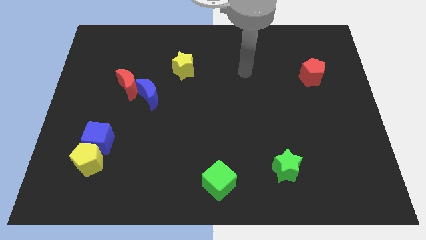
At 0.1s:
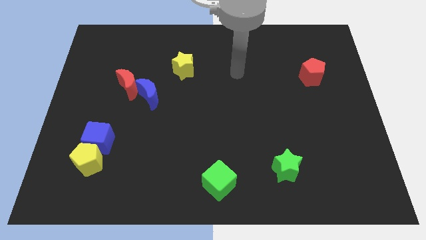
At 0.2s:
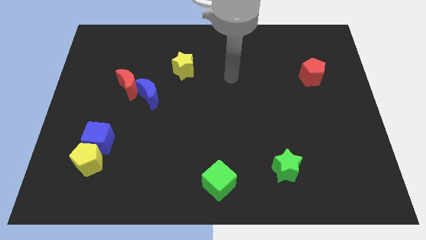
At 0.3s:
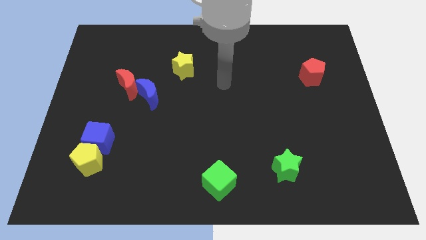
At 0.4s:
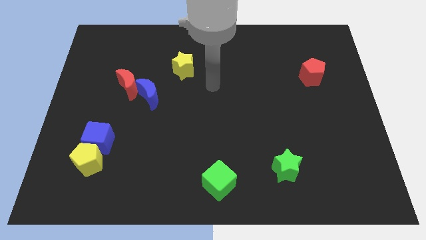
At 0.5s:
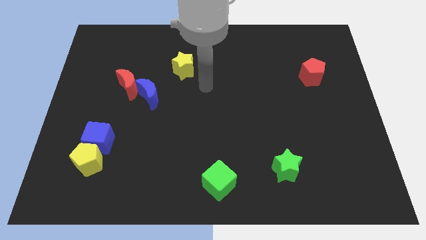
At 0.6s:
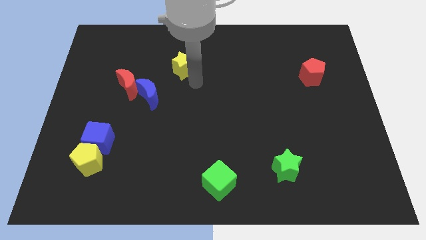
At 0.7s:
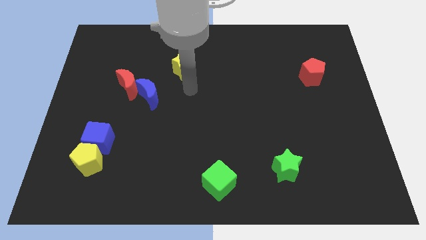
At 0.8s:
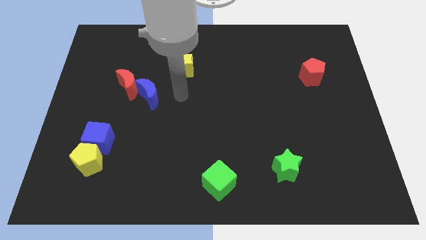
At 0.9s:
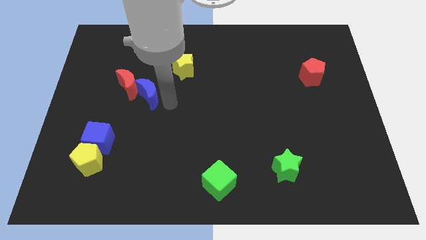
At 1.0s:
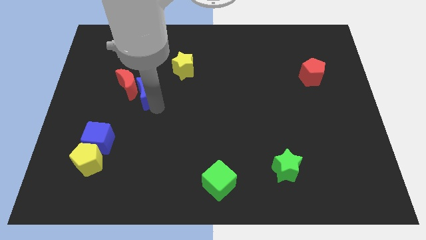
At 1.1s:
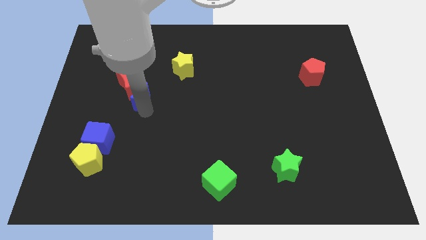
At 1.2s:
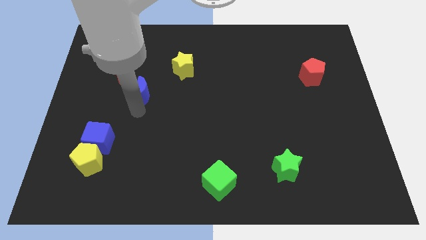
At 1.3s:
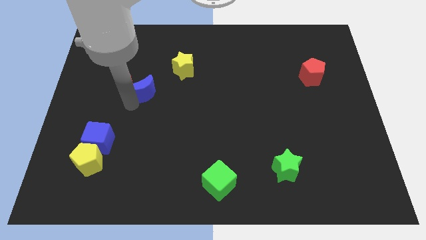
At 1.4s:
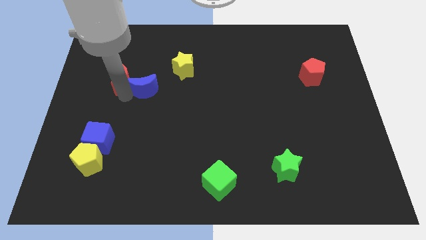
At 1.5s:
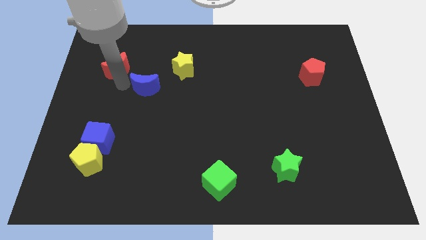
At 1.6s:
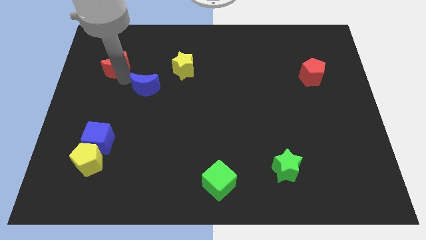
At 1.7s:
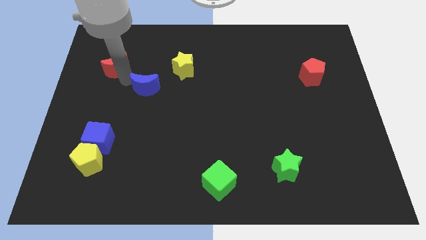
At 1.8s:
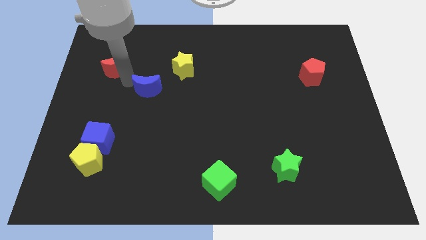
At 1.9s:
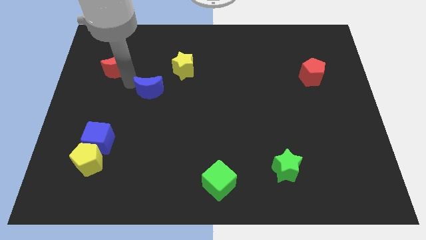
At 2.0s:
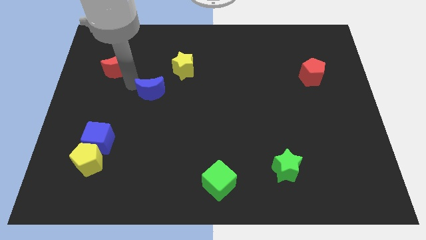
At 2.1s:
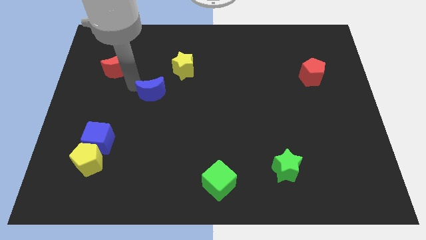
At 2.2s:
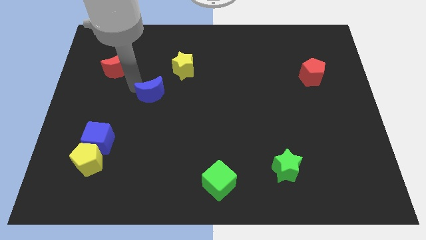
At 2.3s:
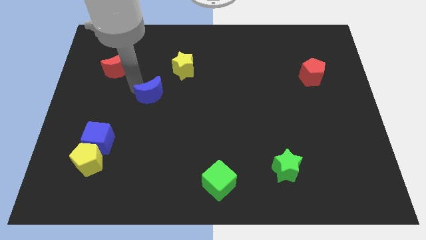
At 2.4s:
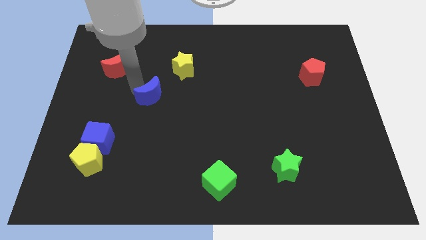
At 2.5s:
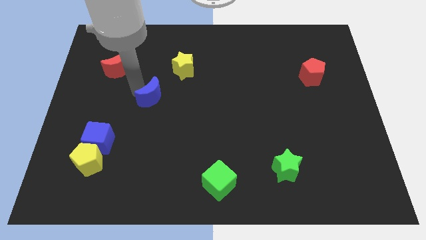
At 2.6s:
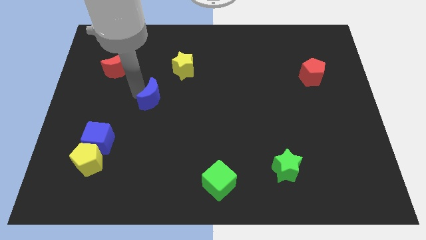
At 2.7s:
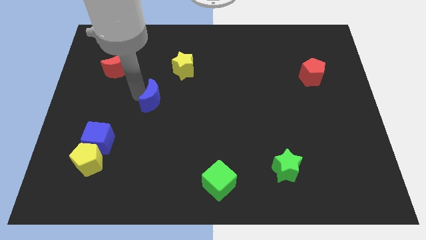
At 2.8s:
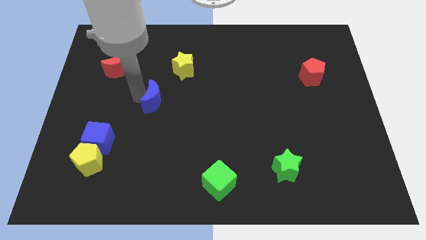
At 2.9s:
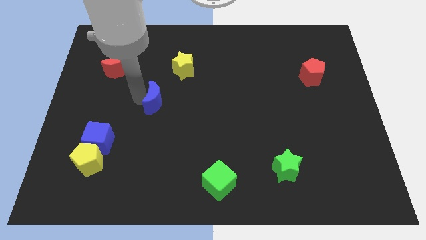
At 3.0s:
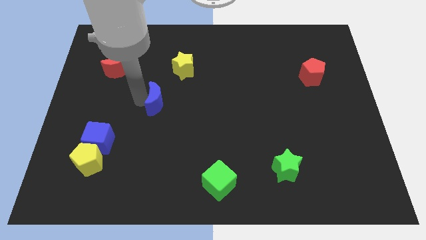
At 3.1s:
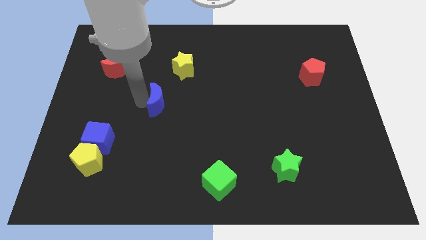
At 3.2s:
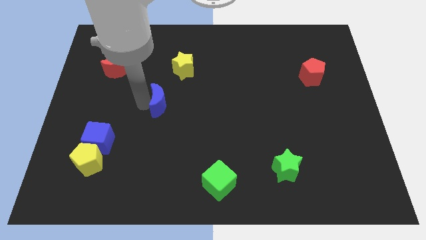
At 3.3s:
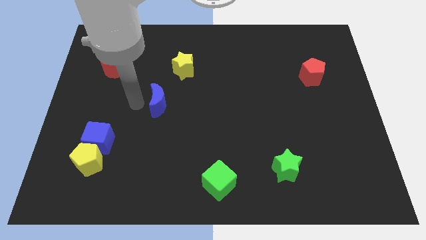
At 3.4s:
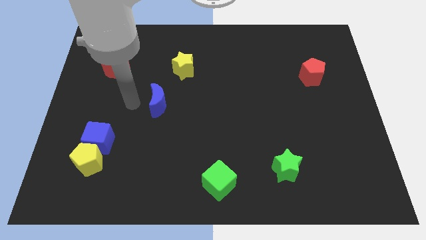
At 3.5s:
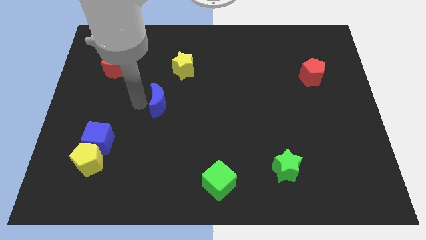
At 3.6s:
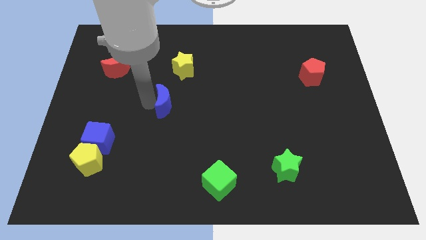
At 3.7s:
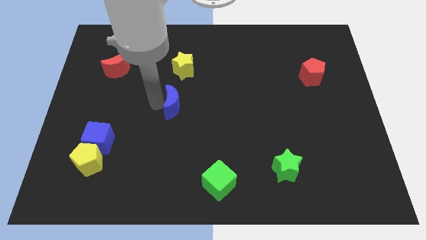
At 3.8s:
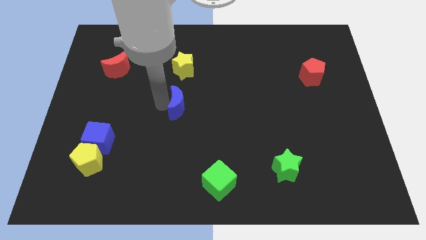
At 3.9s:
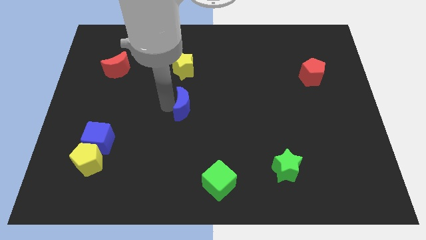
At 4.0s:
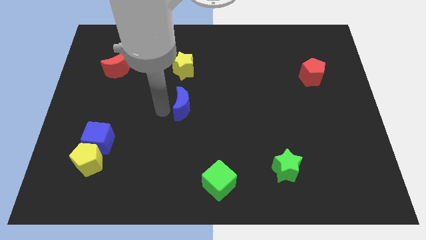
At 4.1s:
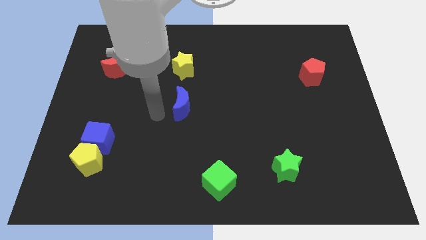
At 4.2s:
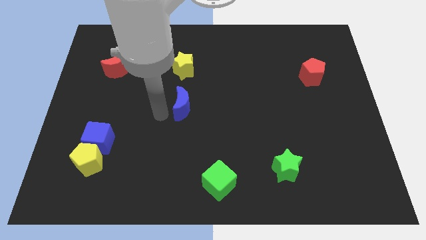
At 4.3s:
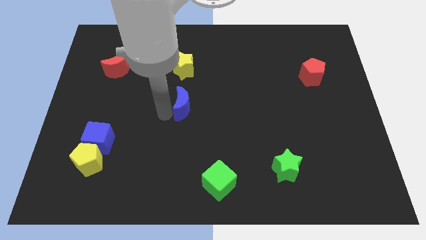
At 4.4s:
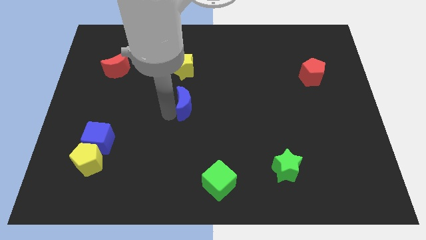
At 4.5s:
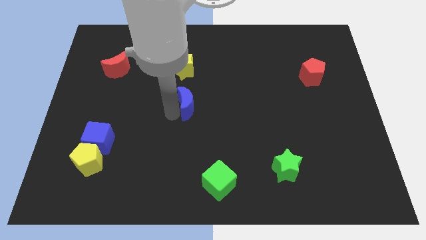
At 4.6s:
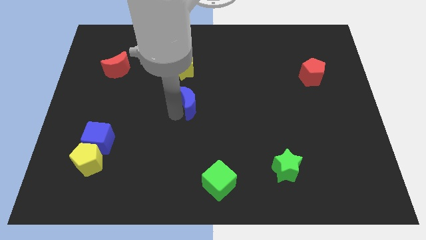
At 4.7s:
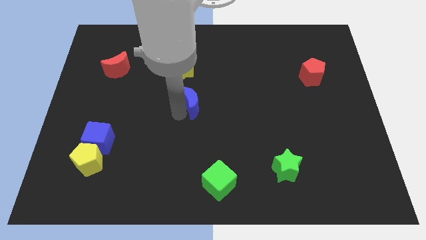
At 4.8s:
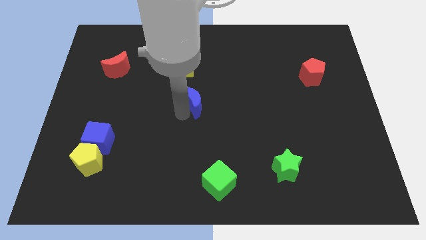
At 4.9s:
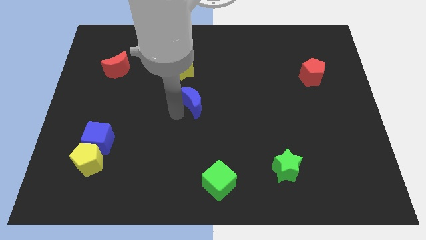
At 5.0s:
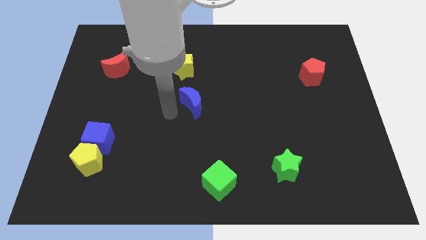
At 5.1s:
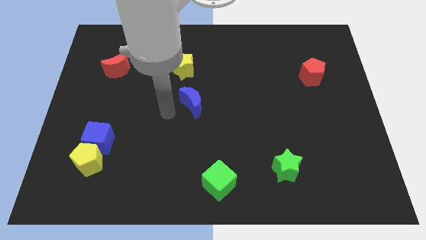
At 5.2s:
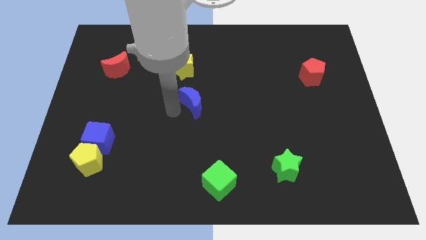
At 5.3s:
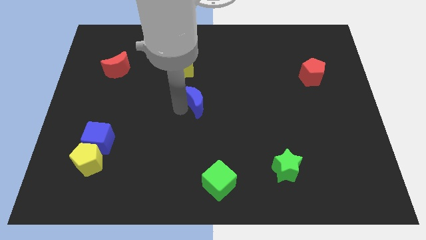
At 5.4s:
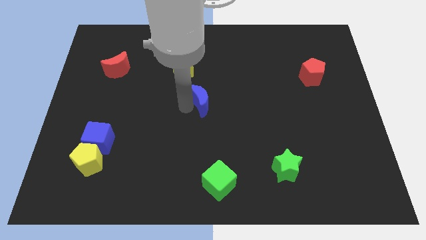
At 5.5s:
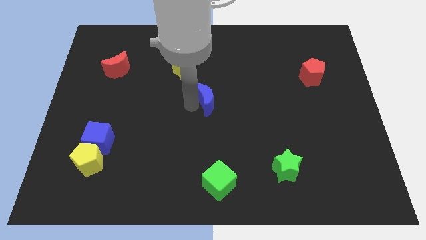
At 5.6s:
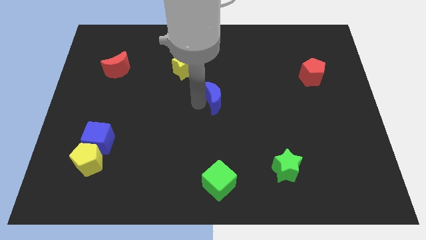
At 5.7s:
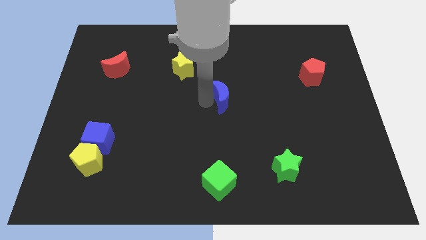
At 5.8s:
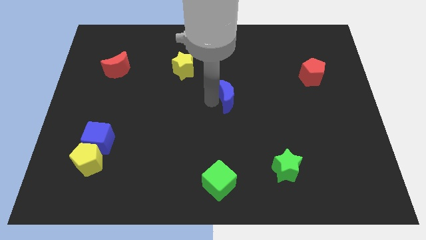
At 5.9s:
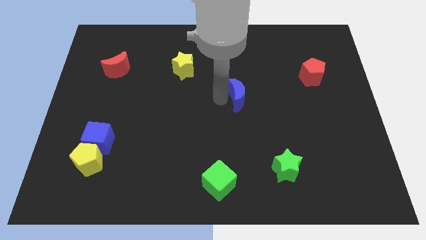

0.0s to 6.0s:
push the blue moon right

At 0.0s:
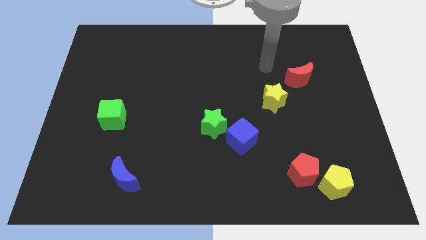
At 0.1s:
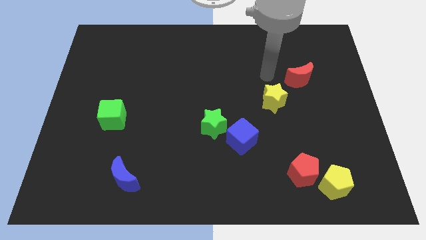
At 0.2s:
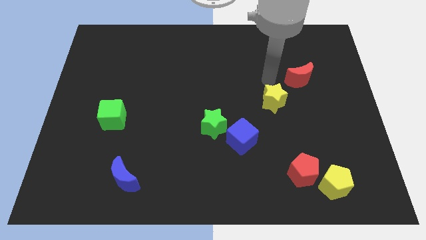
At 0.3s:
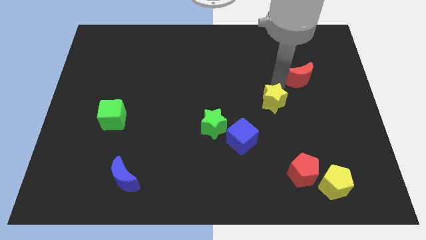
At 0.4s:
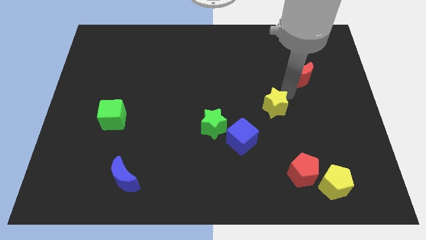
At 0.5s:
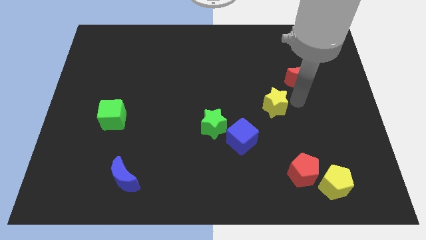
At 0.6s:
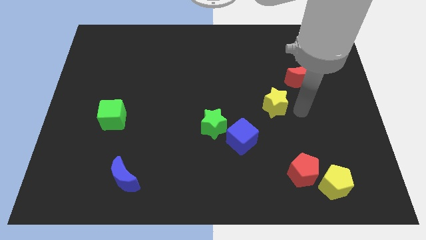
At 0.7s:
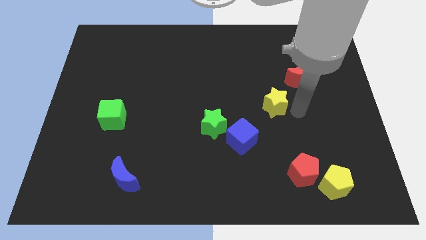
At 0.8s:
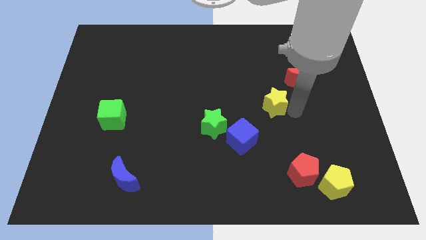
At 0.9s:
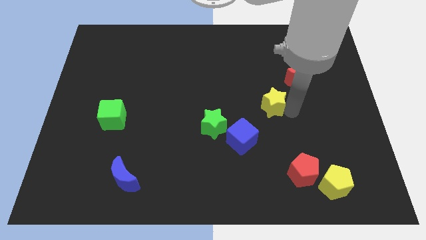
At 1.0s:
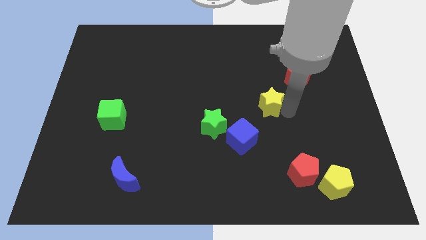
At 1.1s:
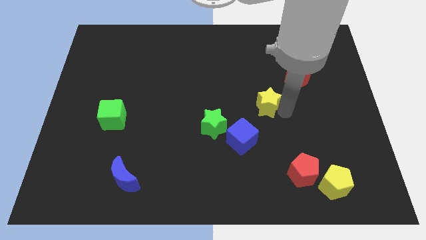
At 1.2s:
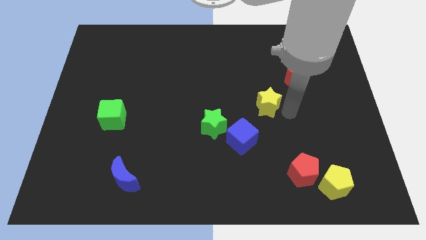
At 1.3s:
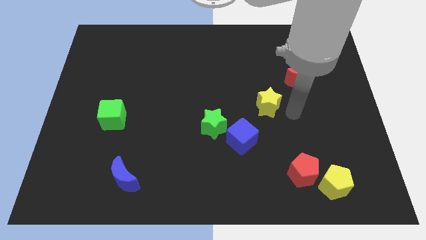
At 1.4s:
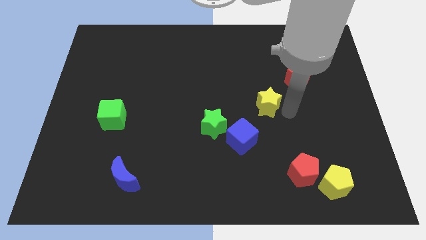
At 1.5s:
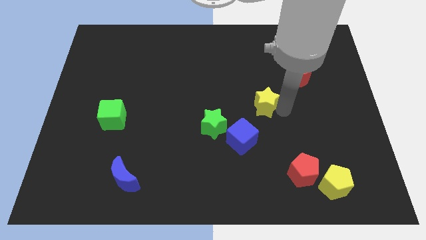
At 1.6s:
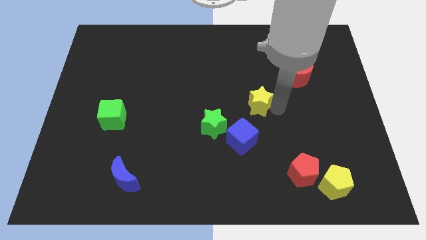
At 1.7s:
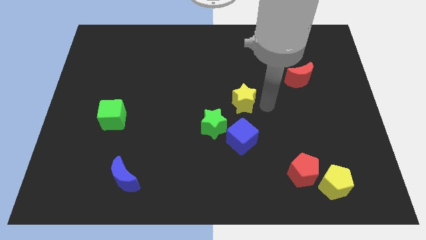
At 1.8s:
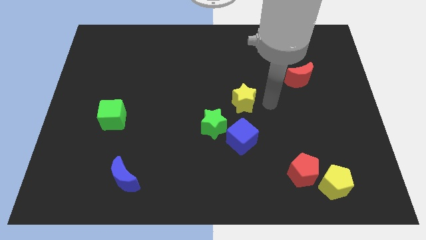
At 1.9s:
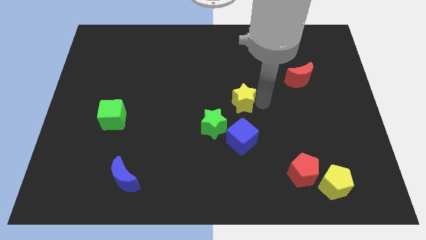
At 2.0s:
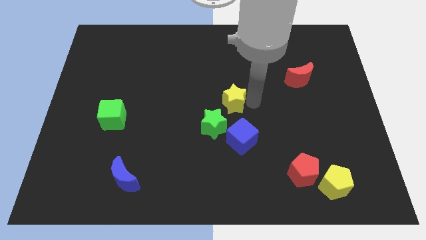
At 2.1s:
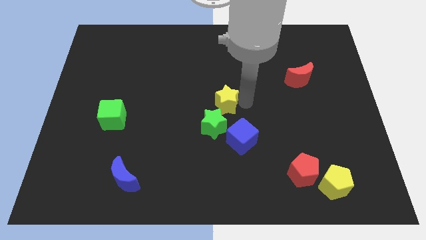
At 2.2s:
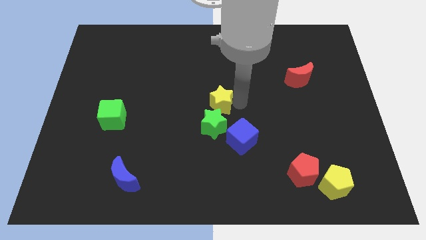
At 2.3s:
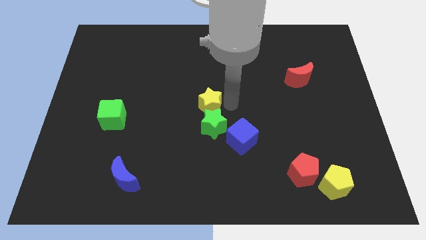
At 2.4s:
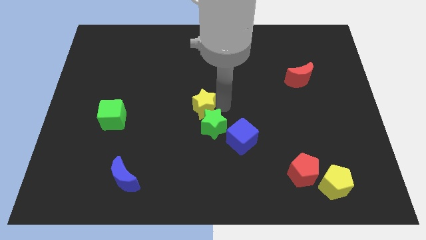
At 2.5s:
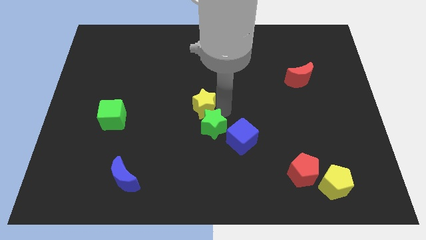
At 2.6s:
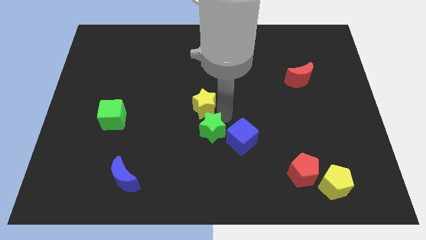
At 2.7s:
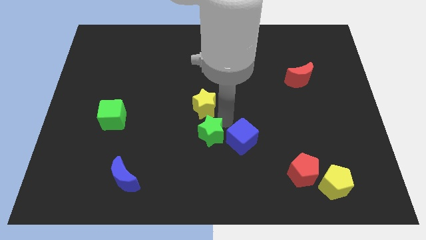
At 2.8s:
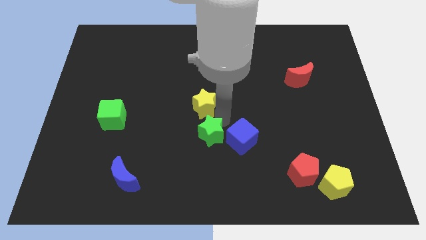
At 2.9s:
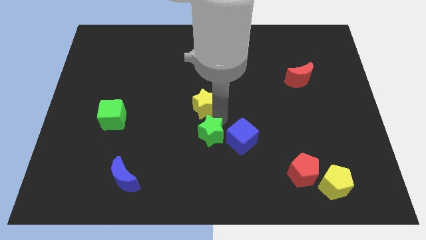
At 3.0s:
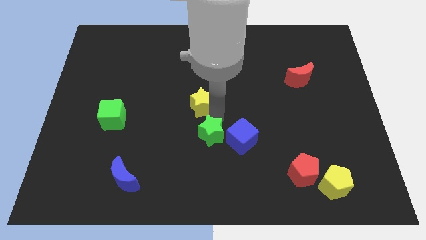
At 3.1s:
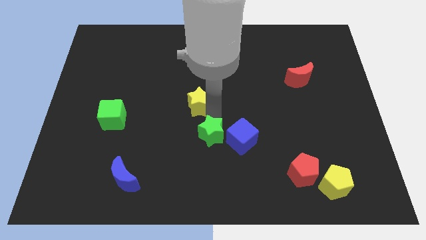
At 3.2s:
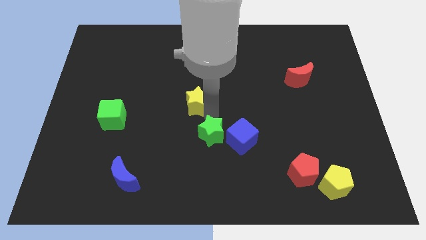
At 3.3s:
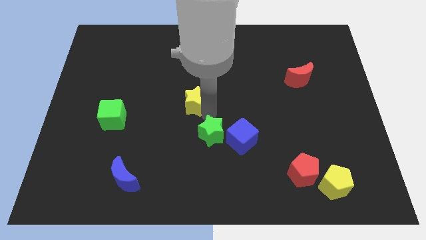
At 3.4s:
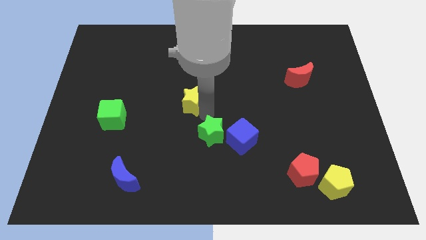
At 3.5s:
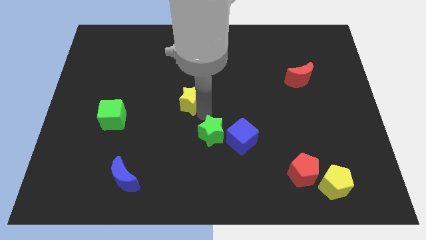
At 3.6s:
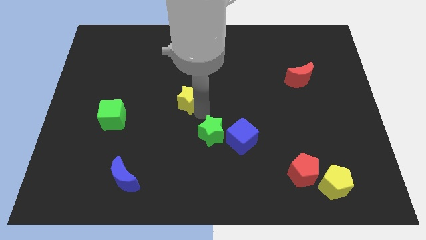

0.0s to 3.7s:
push the yellow star to the left
